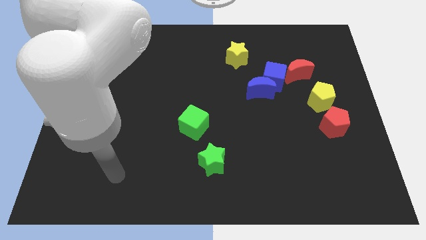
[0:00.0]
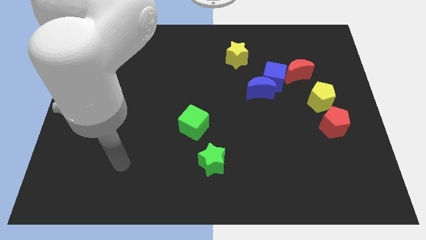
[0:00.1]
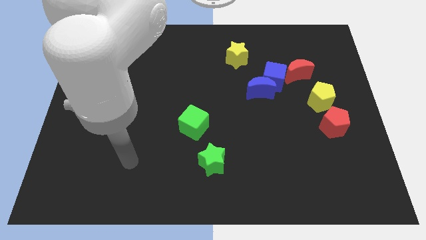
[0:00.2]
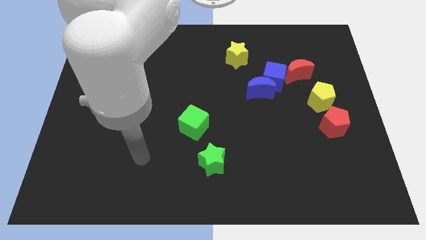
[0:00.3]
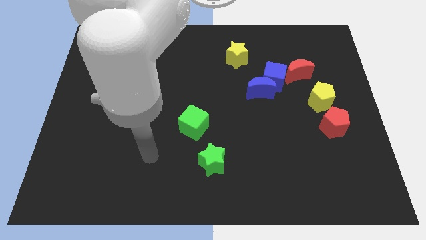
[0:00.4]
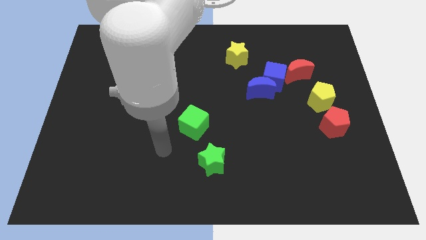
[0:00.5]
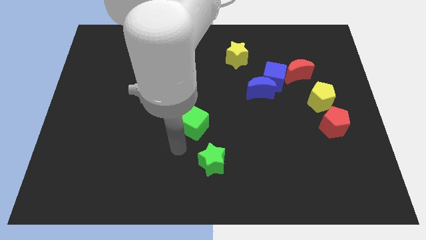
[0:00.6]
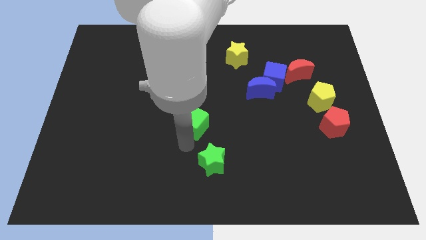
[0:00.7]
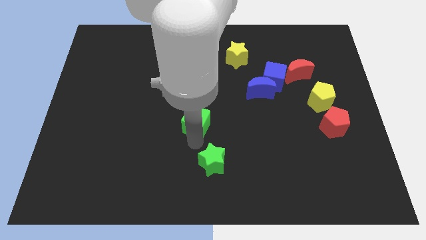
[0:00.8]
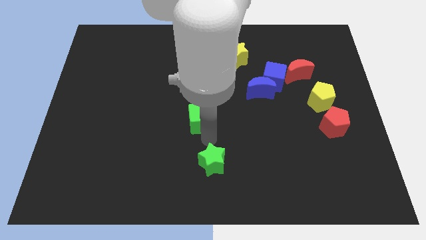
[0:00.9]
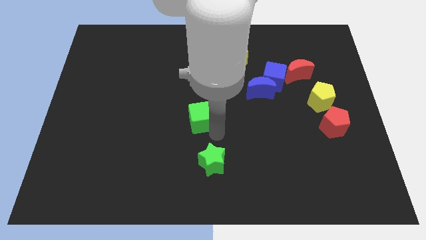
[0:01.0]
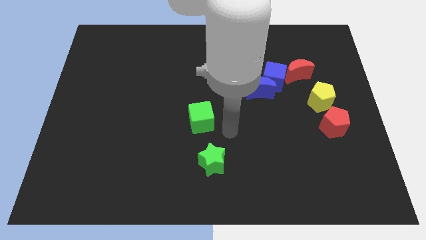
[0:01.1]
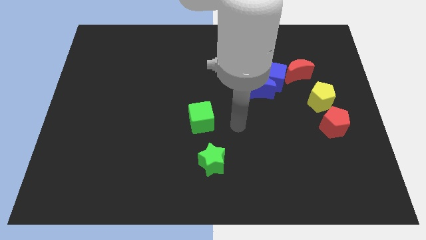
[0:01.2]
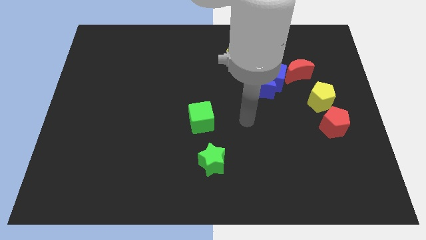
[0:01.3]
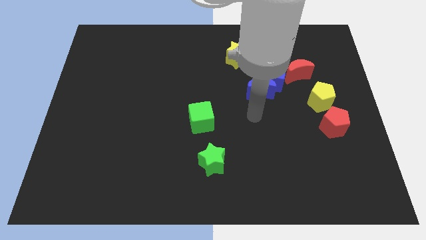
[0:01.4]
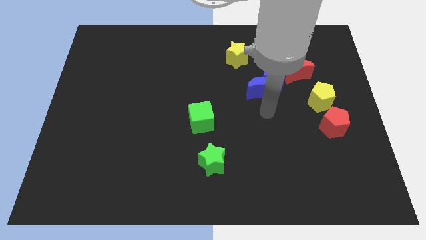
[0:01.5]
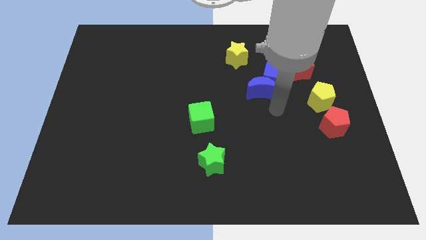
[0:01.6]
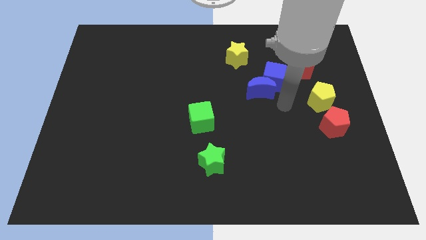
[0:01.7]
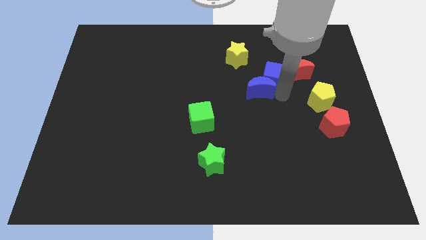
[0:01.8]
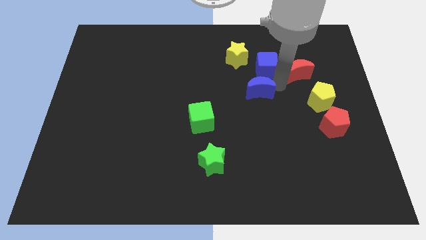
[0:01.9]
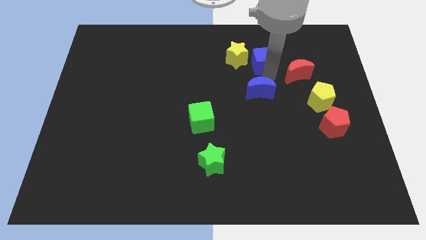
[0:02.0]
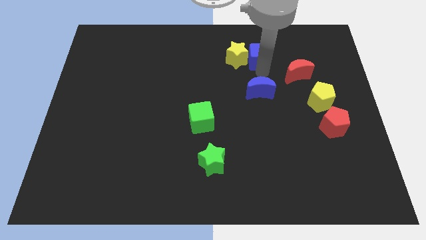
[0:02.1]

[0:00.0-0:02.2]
separate the blue moon from the blue cube

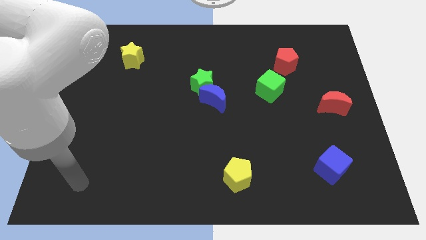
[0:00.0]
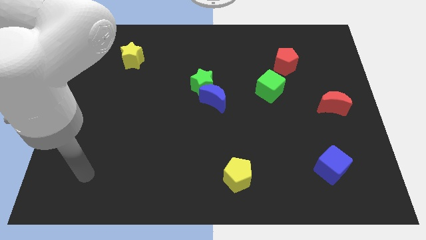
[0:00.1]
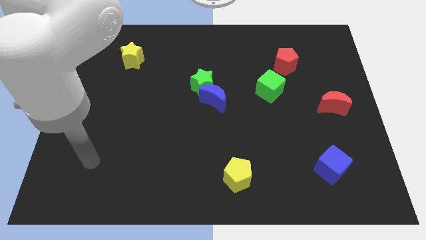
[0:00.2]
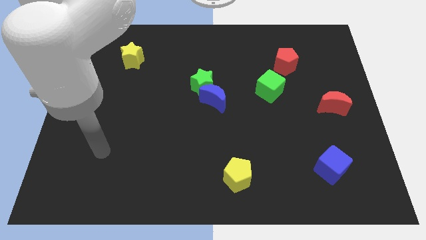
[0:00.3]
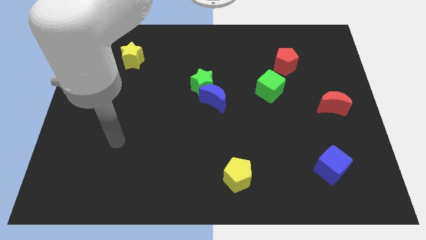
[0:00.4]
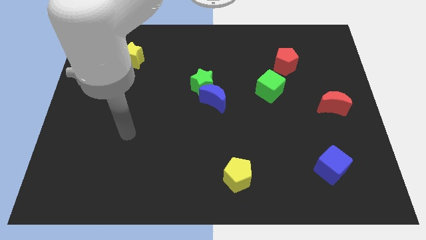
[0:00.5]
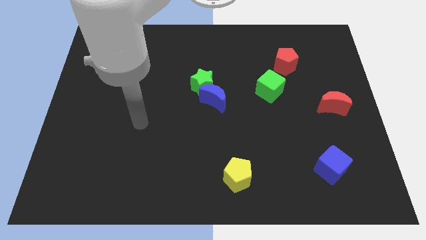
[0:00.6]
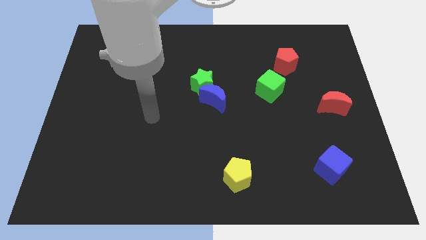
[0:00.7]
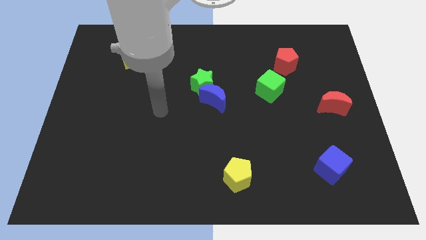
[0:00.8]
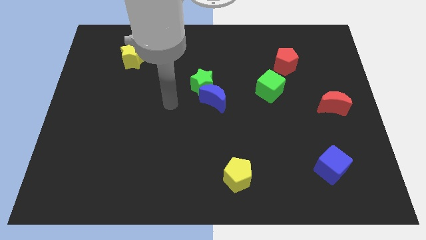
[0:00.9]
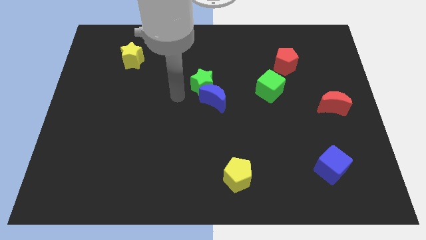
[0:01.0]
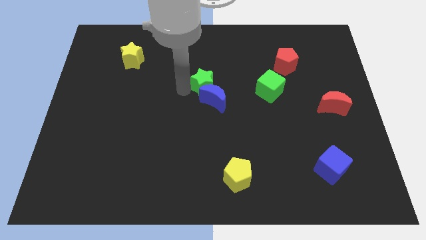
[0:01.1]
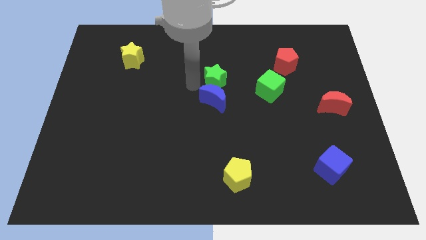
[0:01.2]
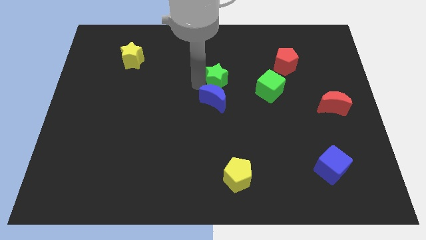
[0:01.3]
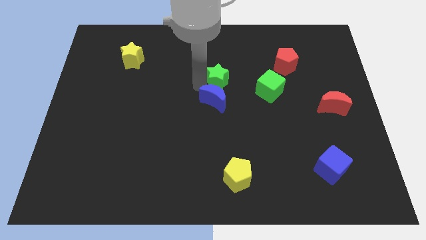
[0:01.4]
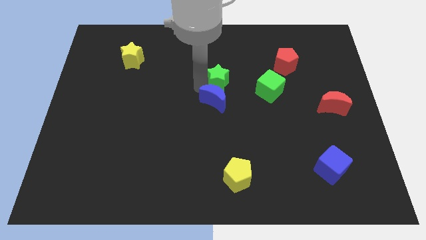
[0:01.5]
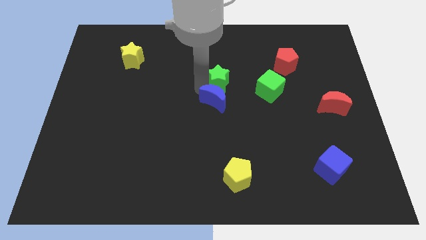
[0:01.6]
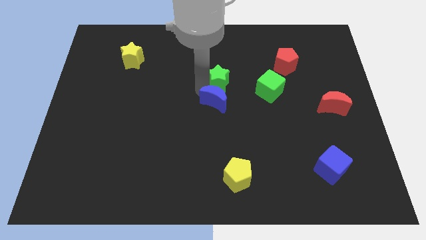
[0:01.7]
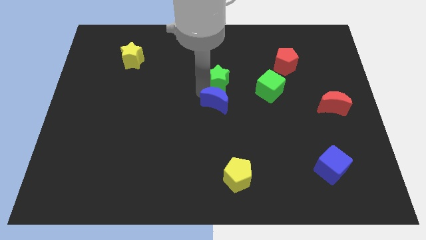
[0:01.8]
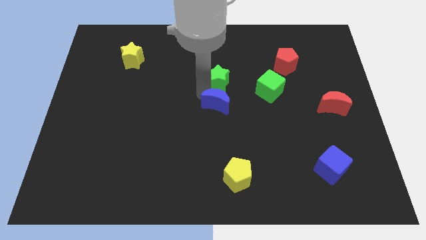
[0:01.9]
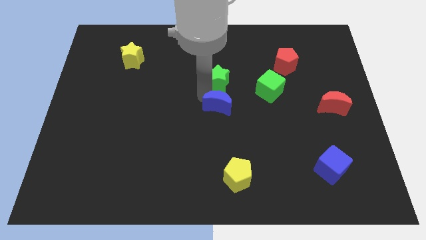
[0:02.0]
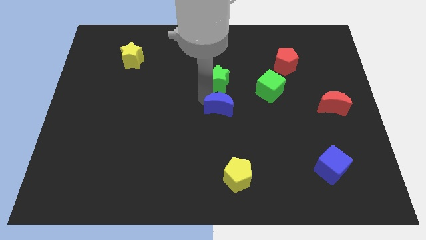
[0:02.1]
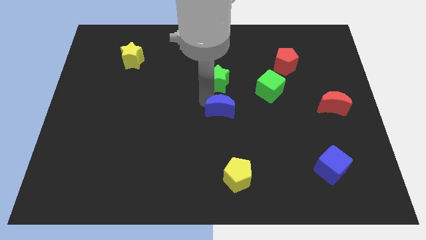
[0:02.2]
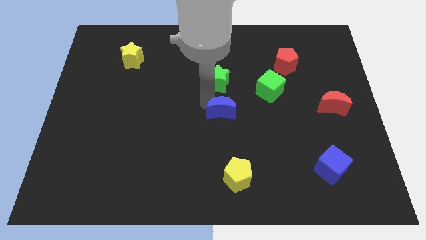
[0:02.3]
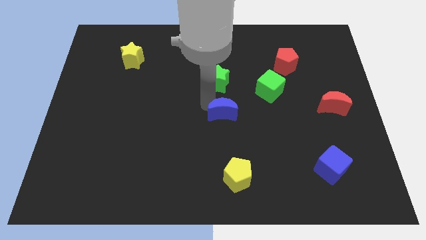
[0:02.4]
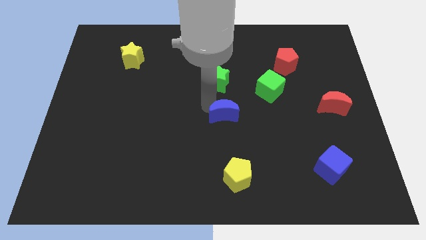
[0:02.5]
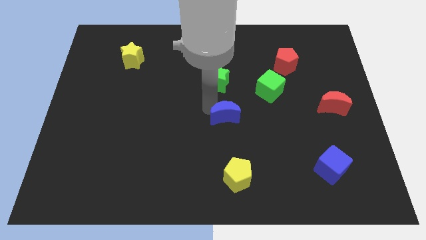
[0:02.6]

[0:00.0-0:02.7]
move the blue moon away from the green star

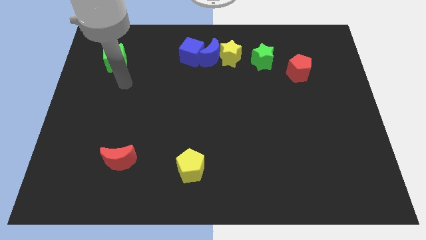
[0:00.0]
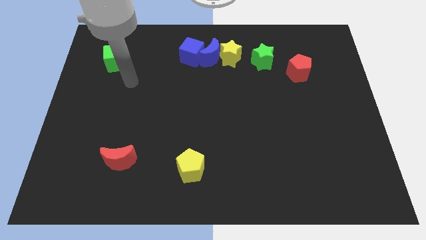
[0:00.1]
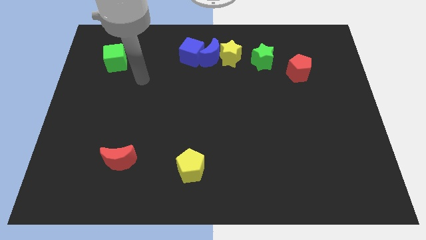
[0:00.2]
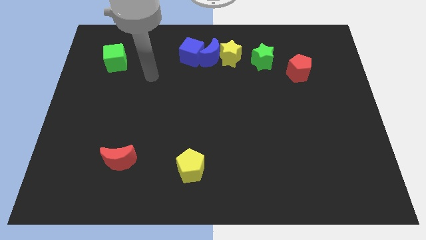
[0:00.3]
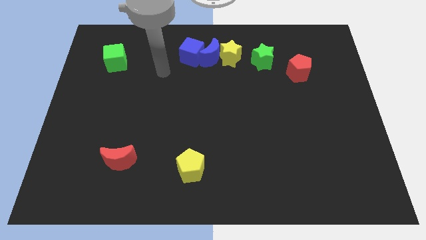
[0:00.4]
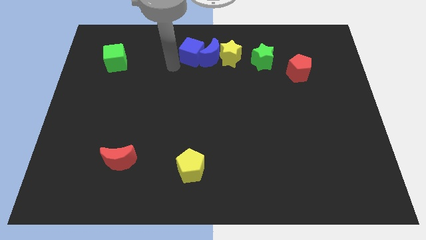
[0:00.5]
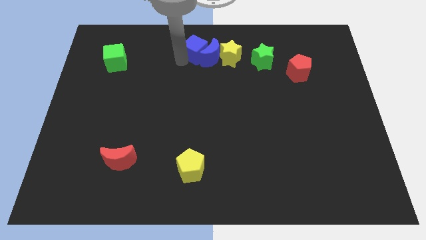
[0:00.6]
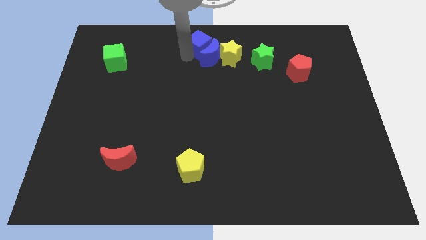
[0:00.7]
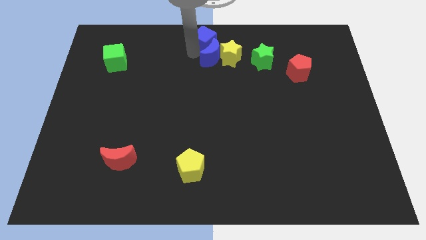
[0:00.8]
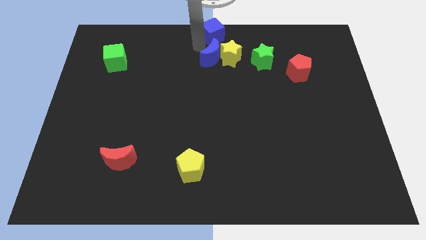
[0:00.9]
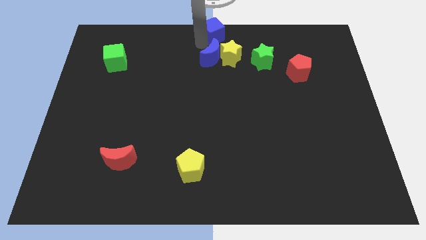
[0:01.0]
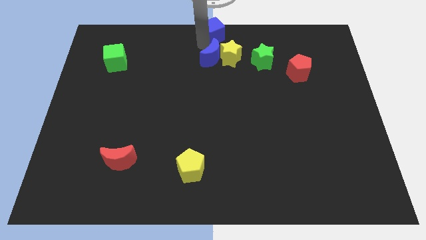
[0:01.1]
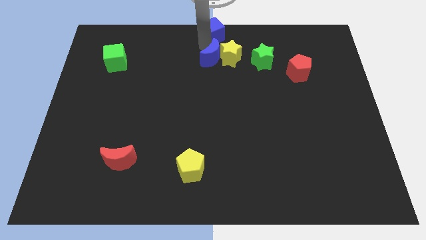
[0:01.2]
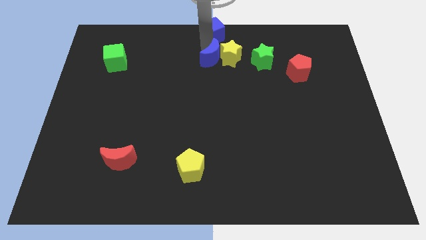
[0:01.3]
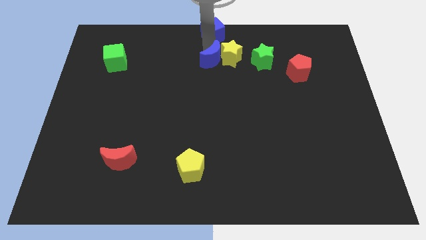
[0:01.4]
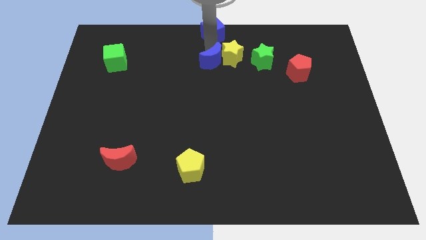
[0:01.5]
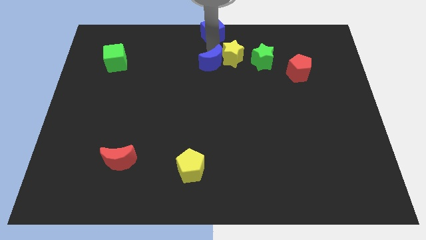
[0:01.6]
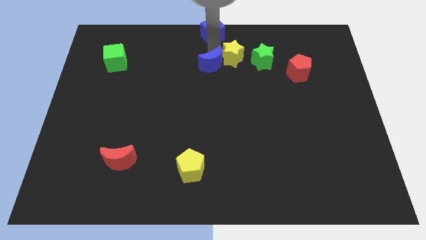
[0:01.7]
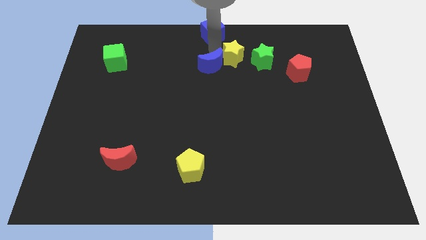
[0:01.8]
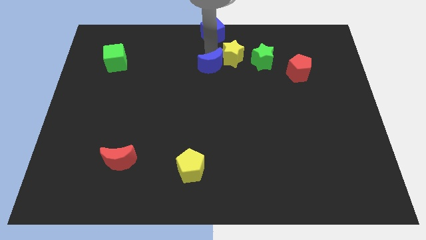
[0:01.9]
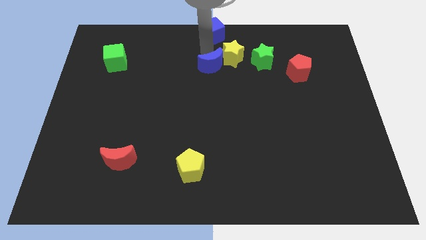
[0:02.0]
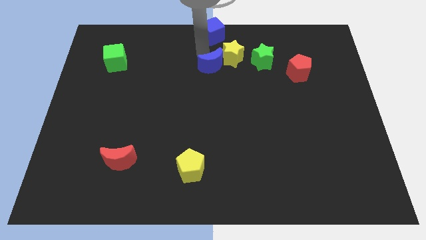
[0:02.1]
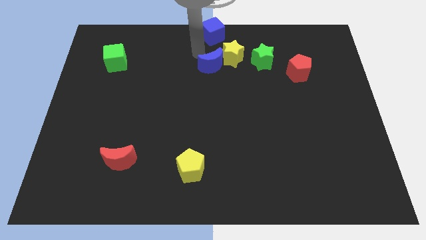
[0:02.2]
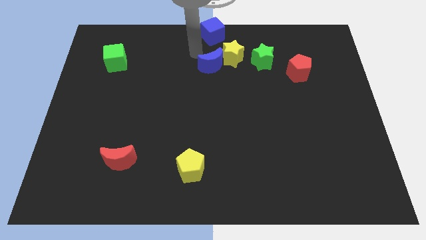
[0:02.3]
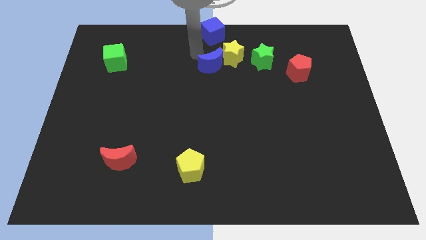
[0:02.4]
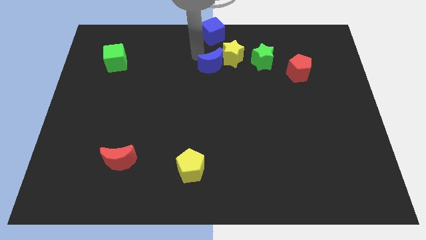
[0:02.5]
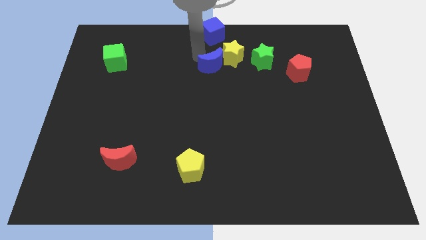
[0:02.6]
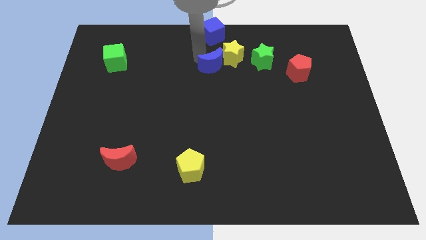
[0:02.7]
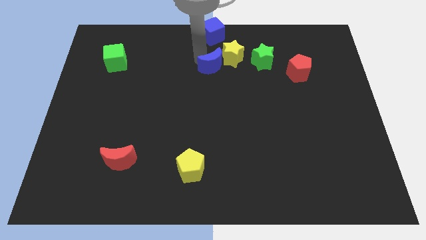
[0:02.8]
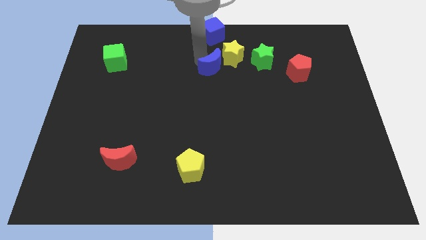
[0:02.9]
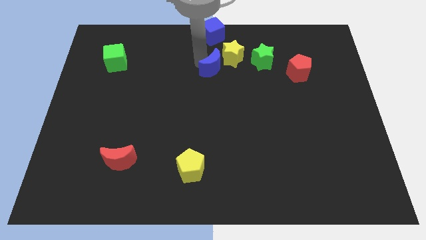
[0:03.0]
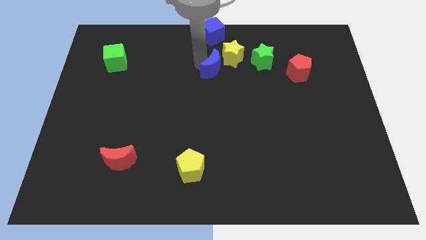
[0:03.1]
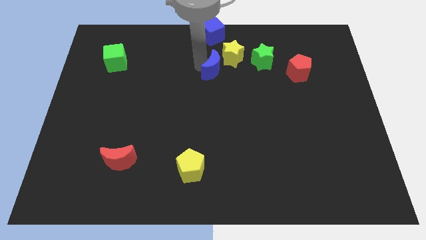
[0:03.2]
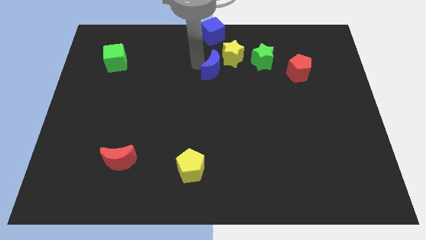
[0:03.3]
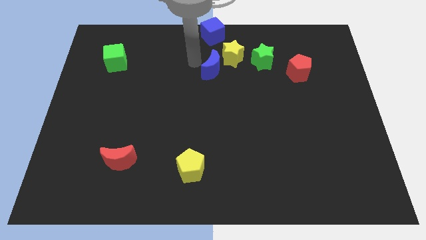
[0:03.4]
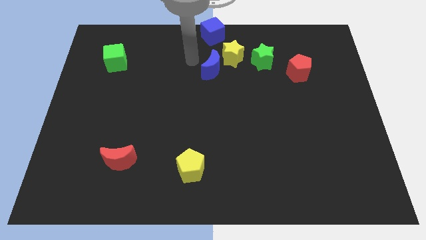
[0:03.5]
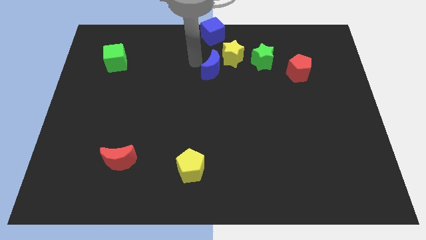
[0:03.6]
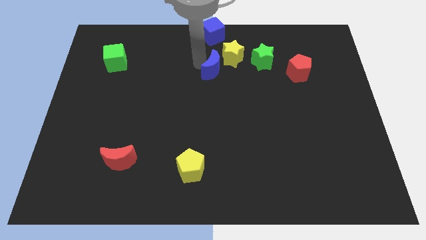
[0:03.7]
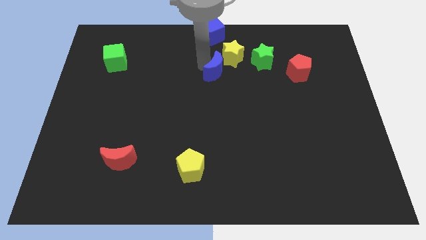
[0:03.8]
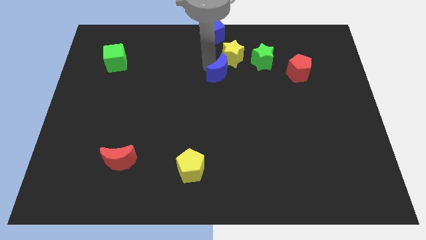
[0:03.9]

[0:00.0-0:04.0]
move the blue moon away from the yellow star and blue cube

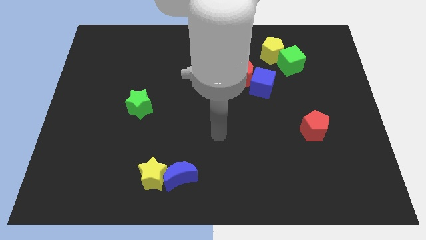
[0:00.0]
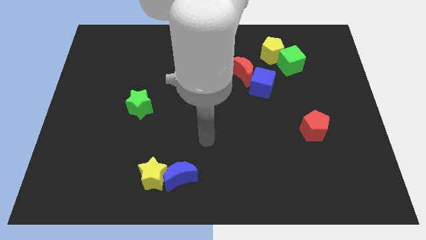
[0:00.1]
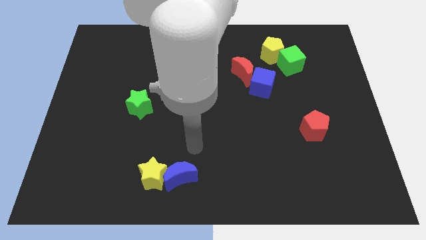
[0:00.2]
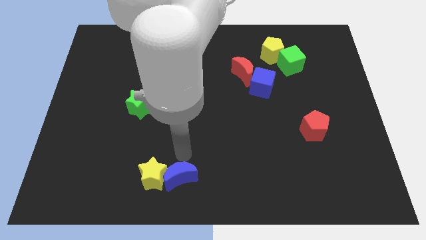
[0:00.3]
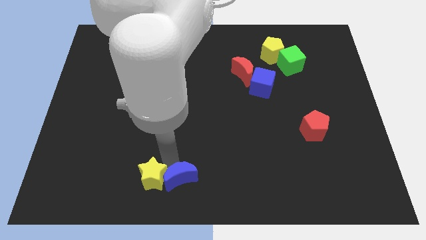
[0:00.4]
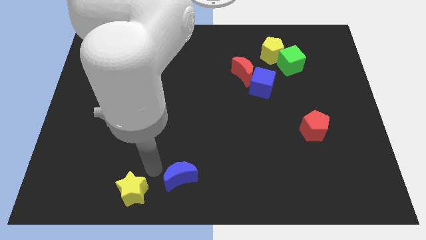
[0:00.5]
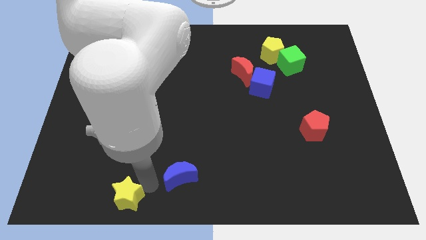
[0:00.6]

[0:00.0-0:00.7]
pull the blue moon apart from the yellow star
